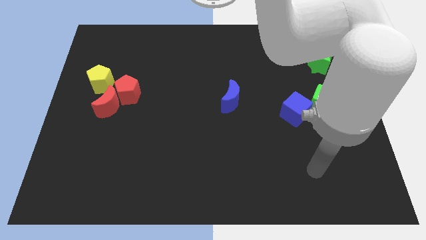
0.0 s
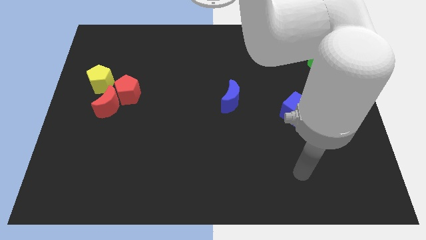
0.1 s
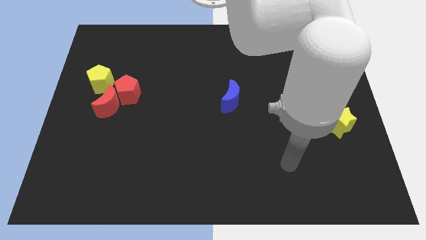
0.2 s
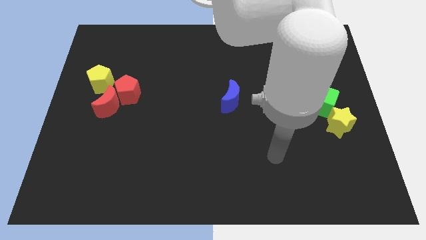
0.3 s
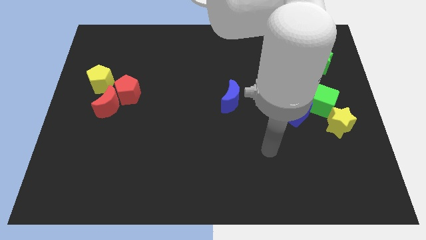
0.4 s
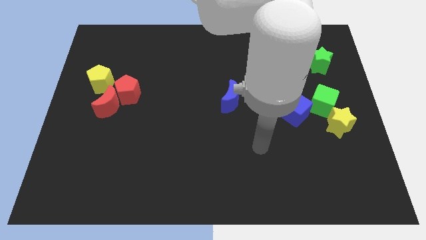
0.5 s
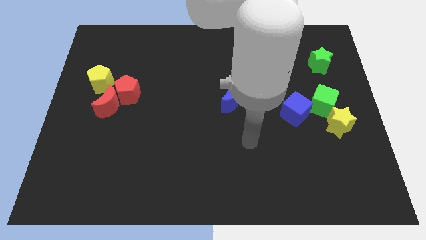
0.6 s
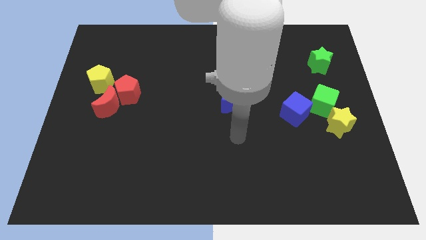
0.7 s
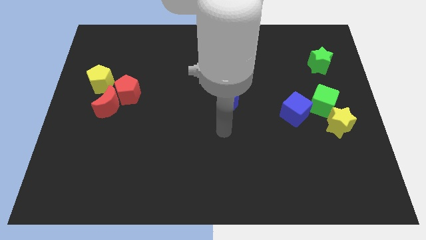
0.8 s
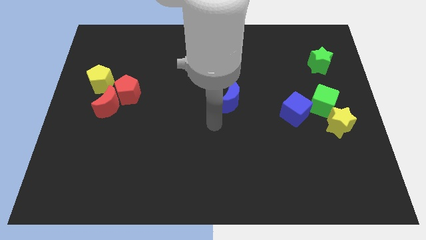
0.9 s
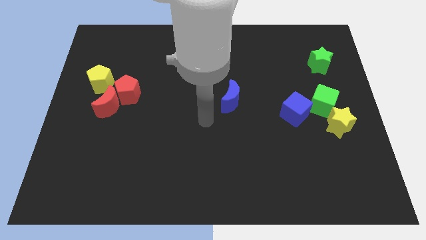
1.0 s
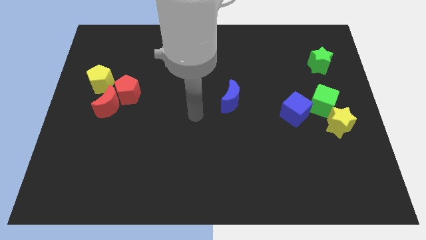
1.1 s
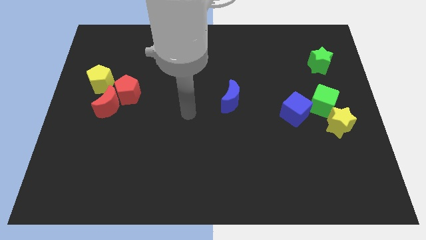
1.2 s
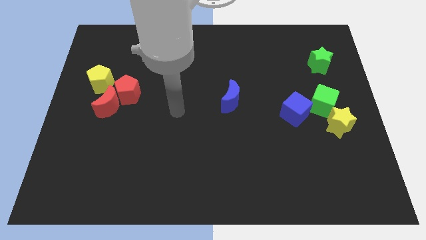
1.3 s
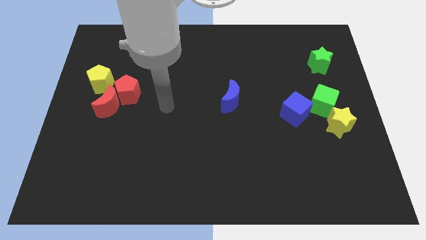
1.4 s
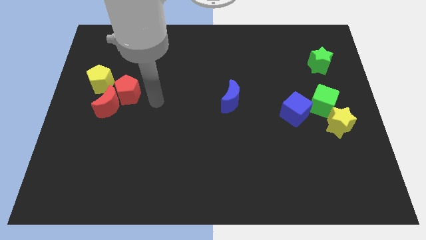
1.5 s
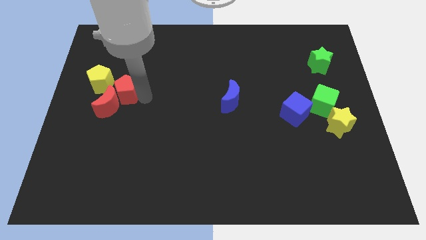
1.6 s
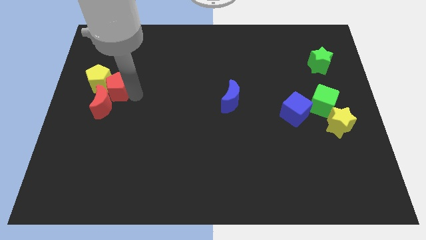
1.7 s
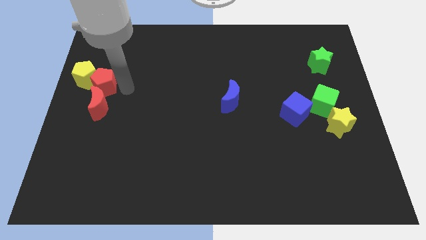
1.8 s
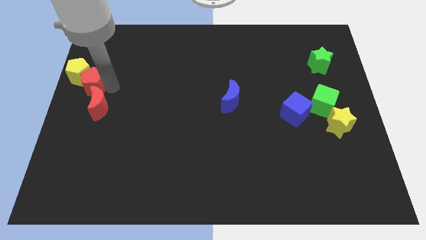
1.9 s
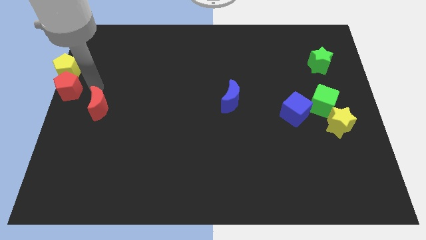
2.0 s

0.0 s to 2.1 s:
separate the red moon from the red pentagon and yellow pentagon

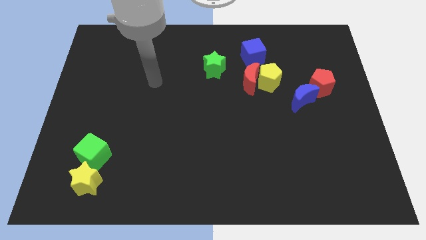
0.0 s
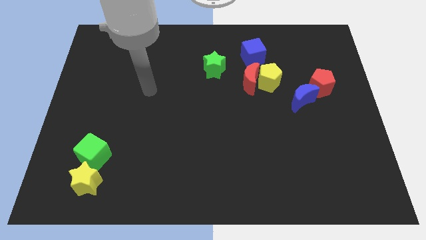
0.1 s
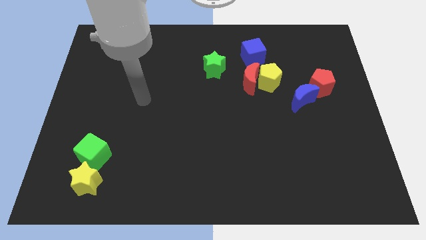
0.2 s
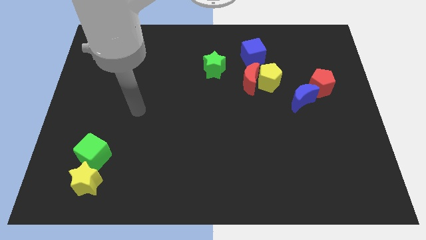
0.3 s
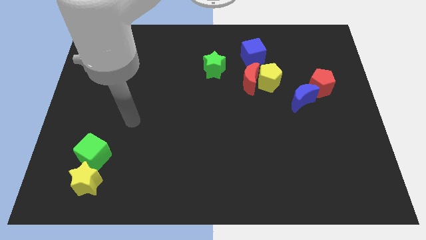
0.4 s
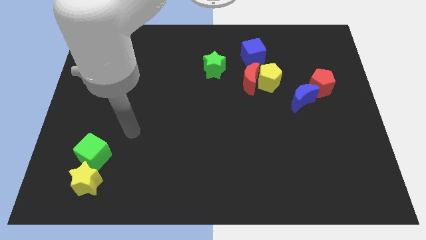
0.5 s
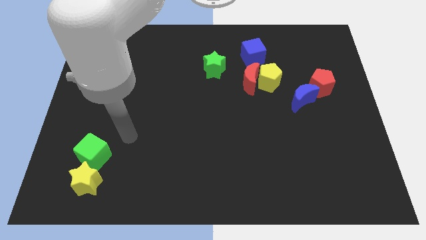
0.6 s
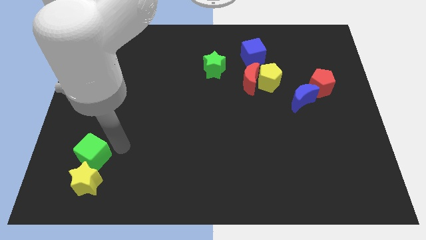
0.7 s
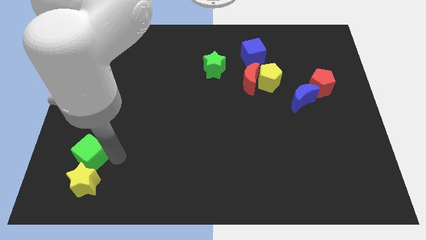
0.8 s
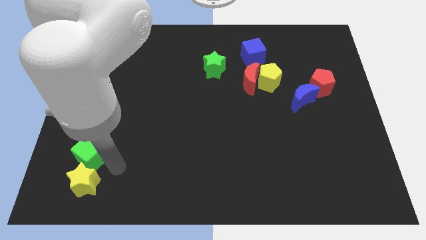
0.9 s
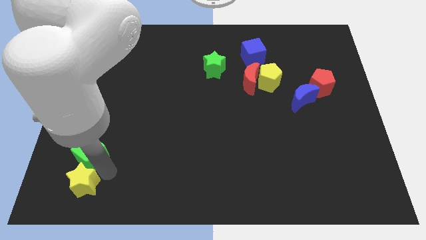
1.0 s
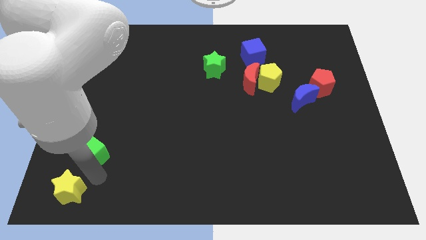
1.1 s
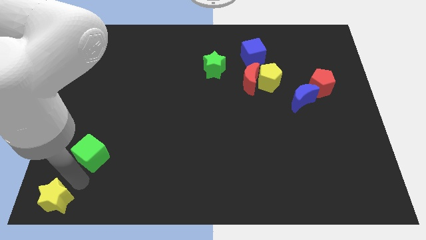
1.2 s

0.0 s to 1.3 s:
pull the green cube apart from the yellow star

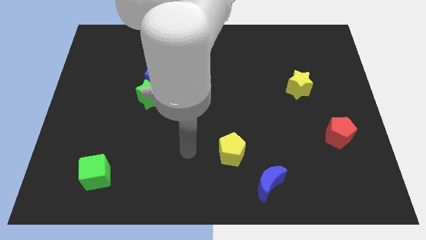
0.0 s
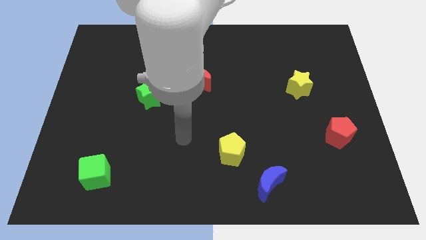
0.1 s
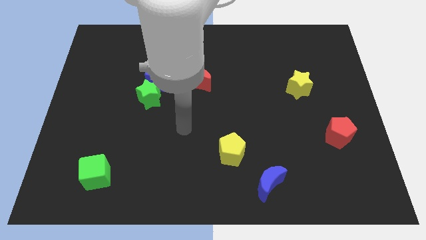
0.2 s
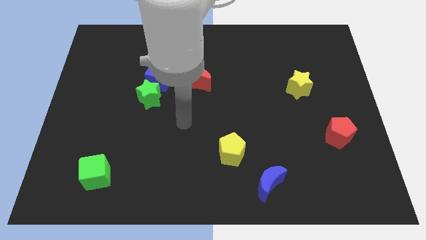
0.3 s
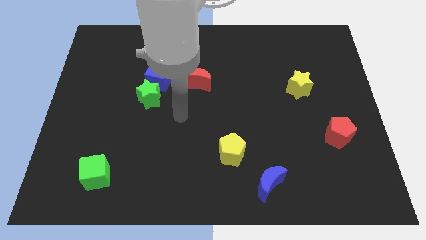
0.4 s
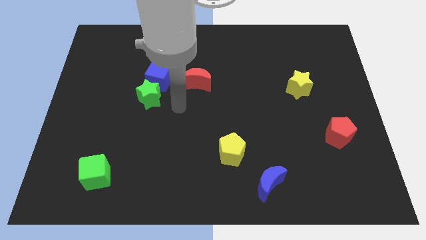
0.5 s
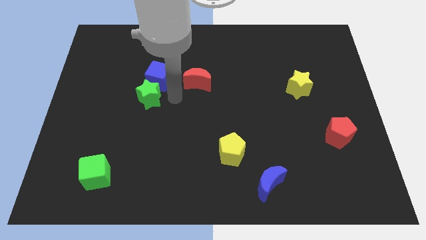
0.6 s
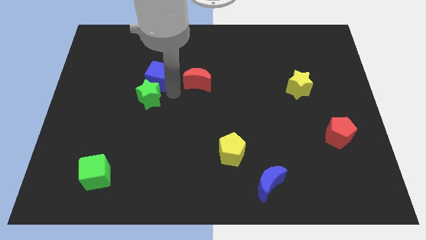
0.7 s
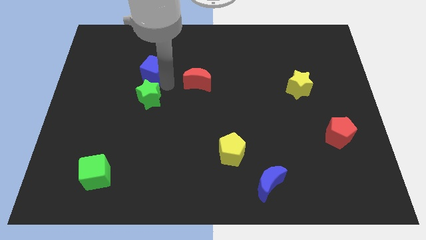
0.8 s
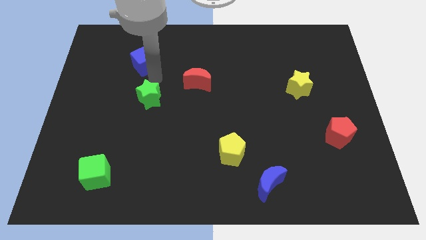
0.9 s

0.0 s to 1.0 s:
pull the green star apart from the blue cube

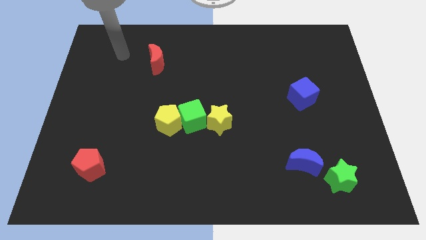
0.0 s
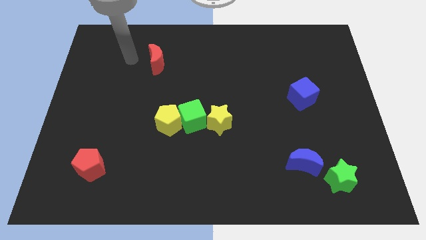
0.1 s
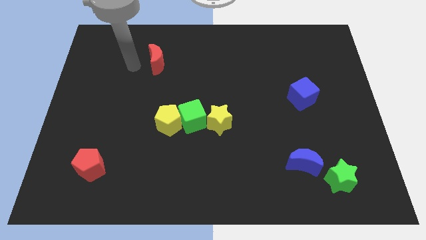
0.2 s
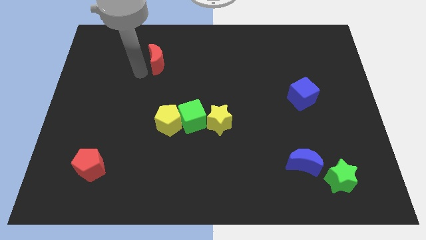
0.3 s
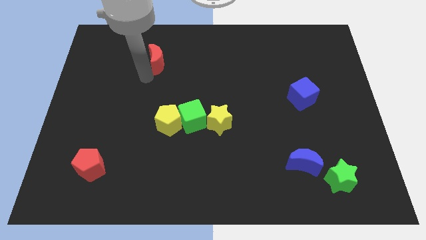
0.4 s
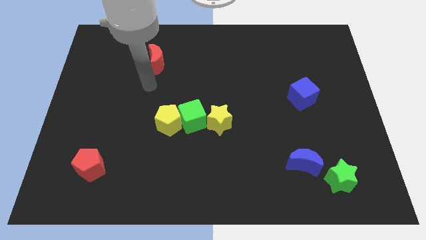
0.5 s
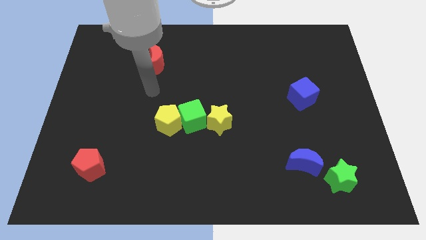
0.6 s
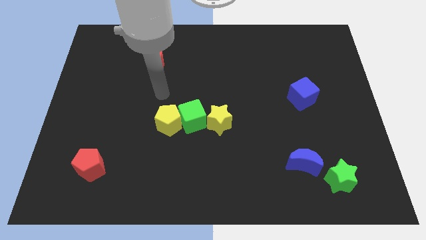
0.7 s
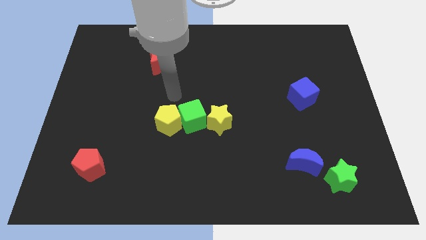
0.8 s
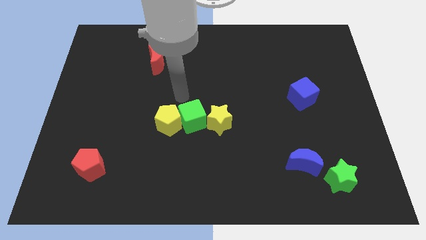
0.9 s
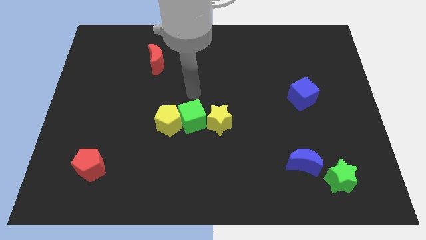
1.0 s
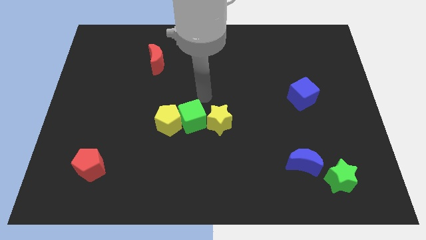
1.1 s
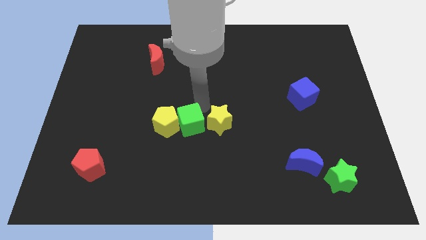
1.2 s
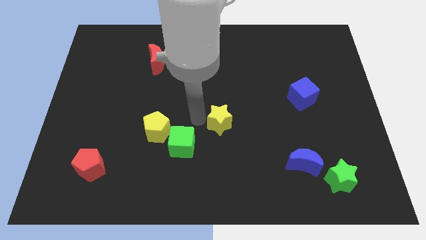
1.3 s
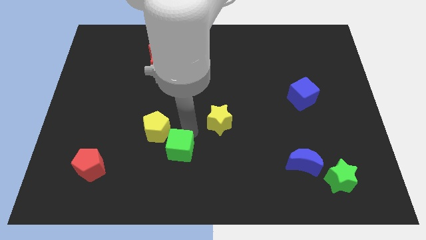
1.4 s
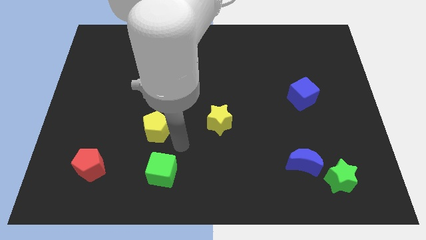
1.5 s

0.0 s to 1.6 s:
pull the yellow pentagon apart from the green cube

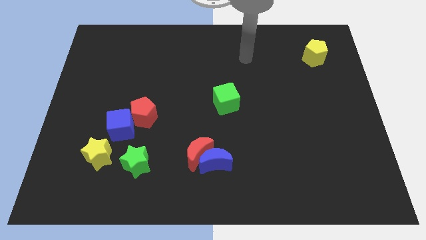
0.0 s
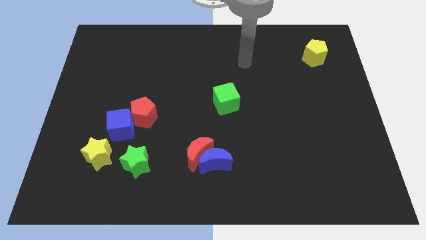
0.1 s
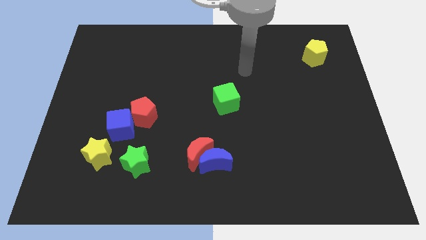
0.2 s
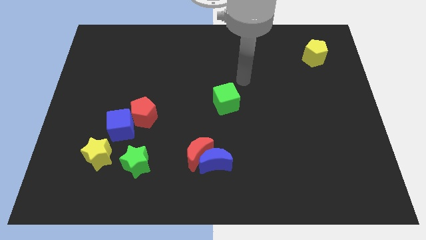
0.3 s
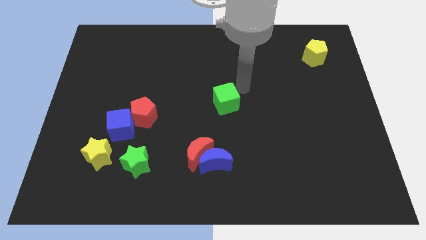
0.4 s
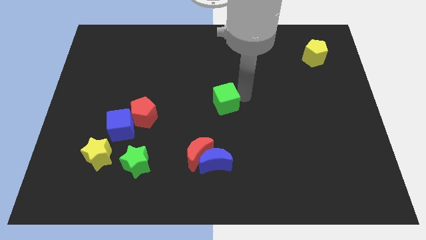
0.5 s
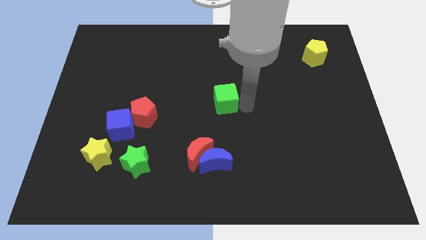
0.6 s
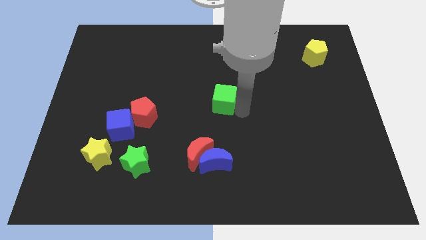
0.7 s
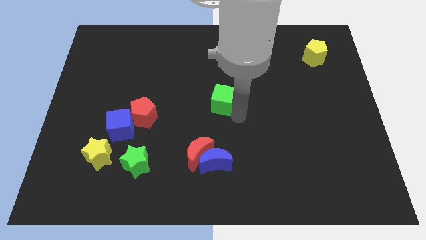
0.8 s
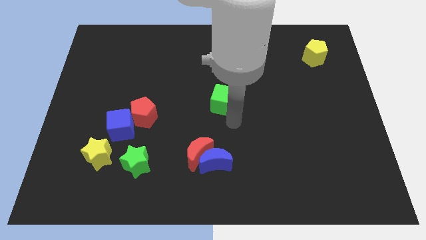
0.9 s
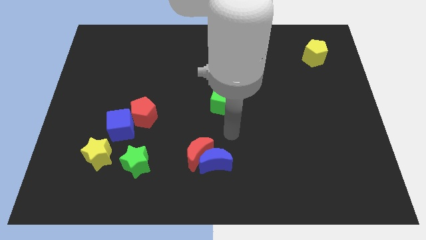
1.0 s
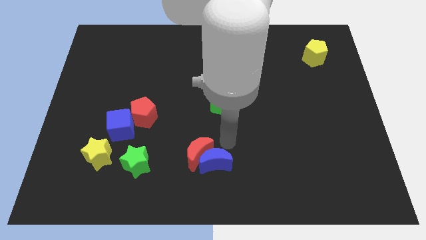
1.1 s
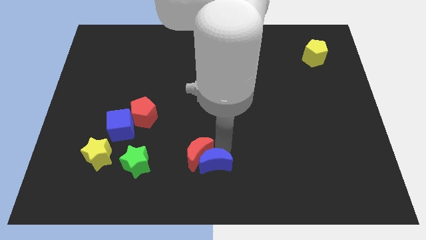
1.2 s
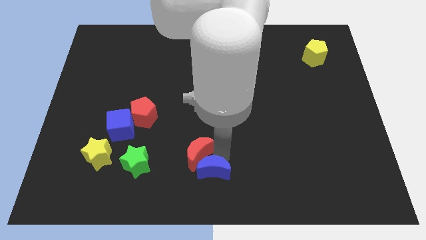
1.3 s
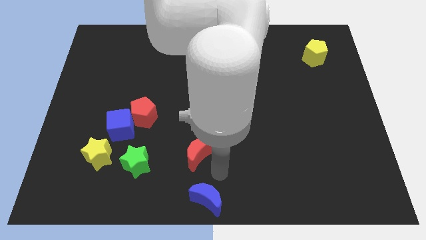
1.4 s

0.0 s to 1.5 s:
pull the red moon apart from the blue moon

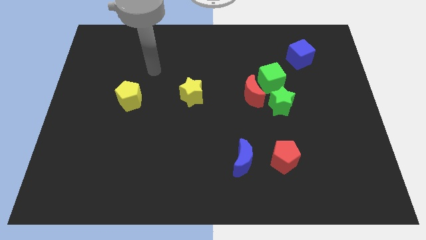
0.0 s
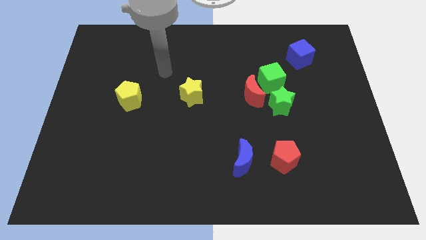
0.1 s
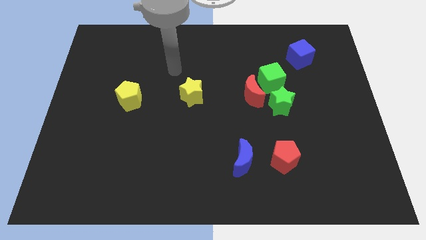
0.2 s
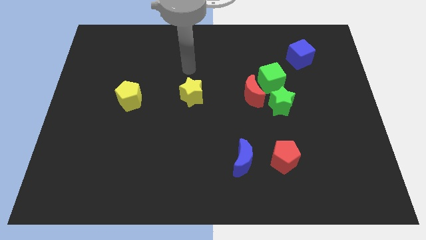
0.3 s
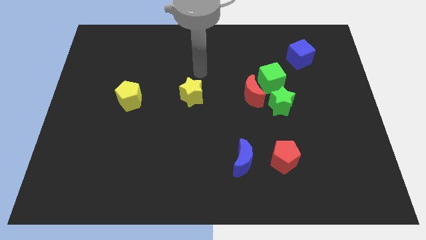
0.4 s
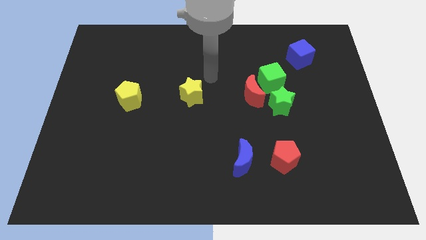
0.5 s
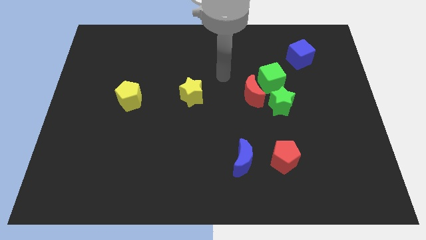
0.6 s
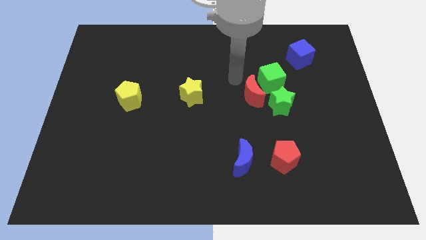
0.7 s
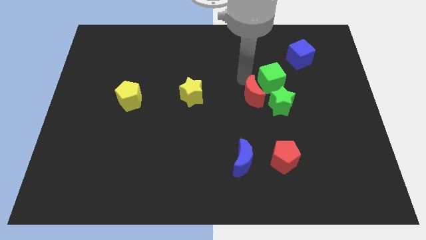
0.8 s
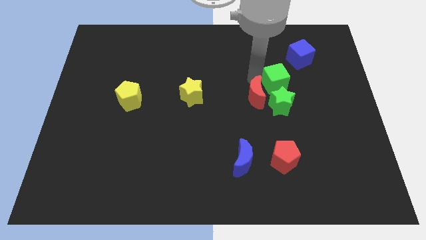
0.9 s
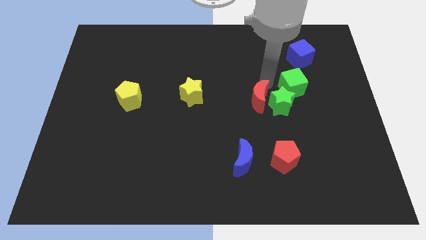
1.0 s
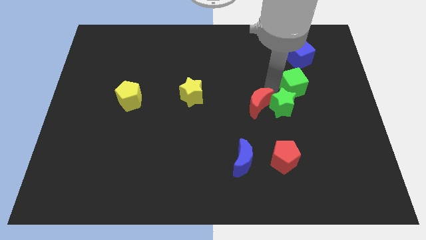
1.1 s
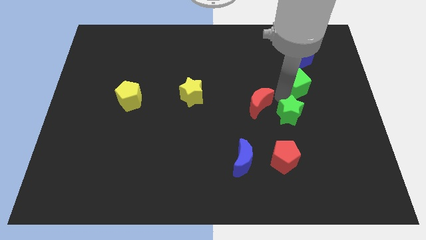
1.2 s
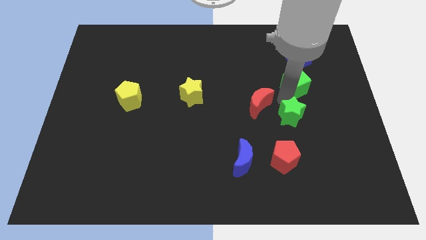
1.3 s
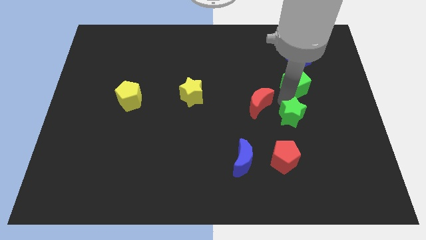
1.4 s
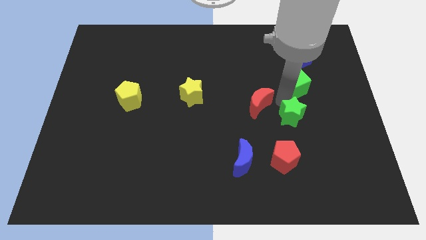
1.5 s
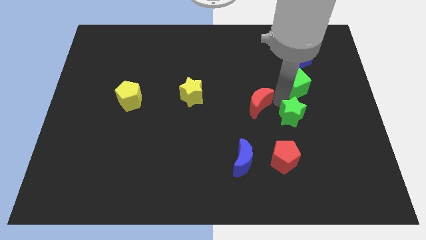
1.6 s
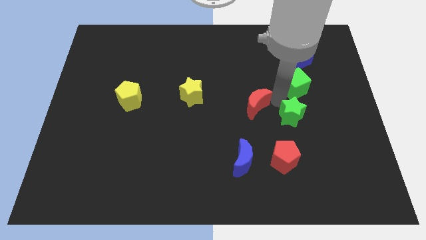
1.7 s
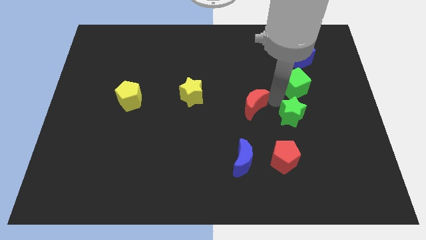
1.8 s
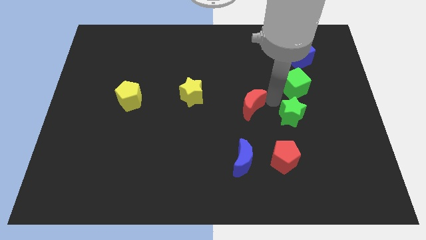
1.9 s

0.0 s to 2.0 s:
pull the red moon apart from the green cube and green star
